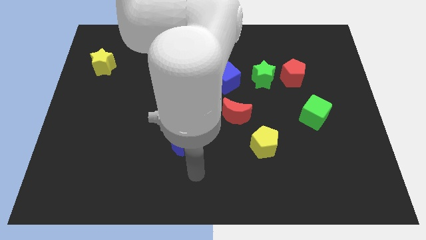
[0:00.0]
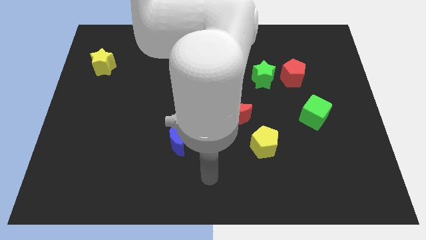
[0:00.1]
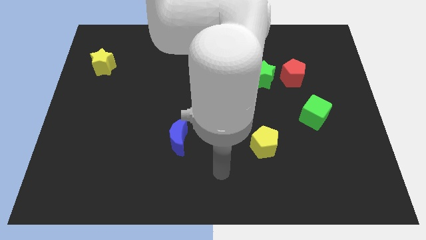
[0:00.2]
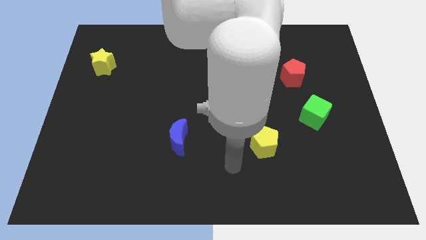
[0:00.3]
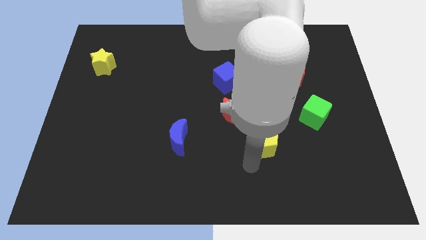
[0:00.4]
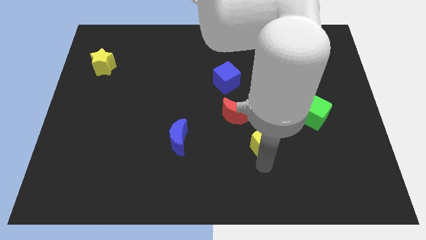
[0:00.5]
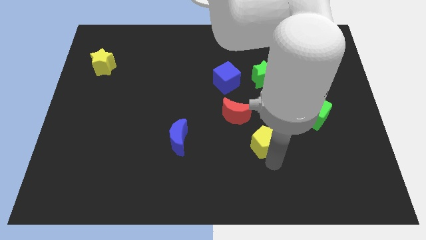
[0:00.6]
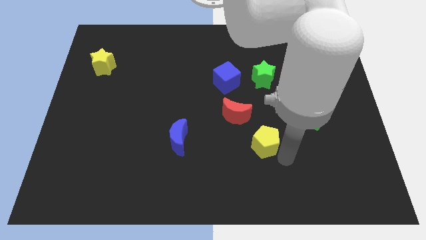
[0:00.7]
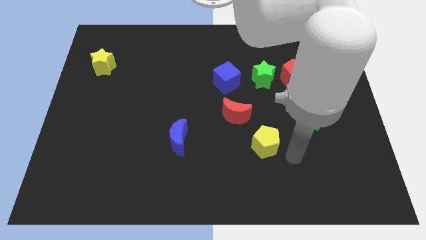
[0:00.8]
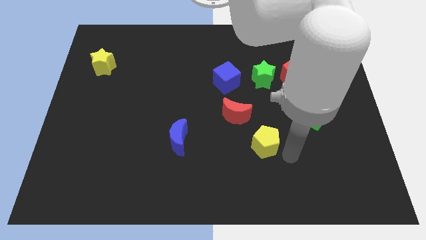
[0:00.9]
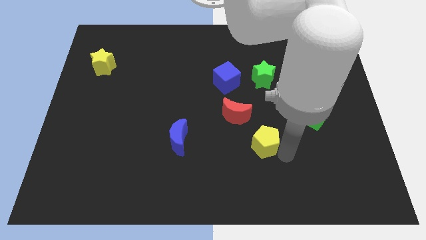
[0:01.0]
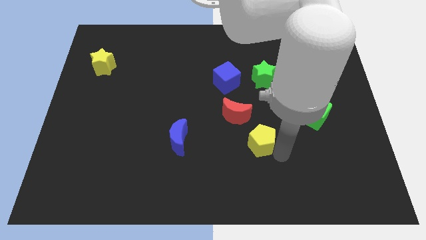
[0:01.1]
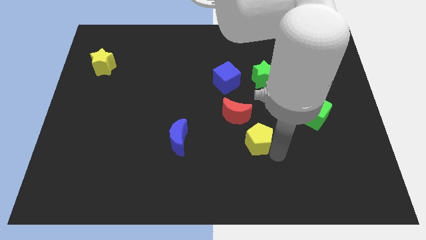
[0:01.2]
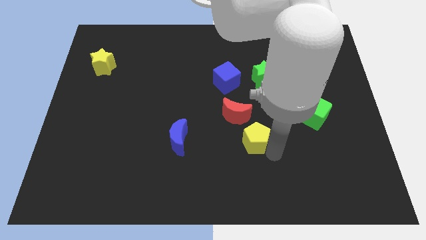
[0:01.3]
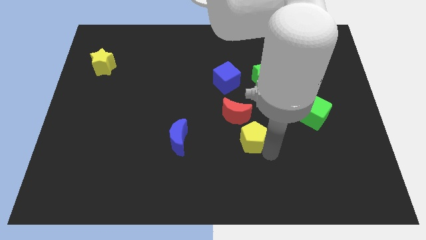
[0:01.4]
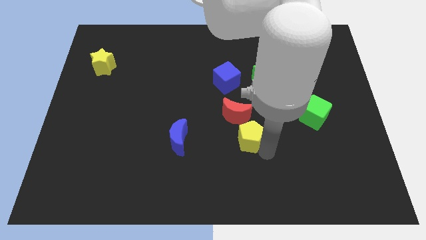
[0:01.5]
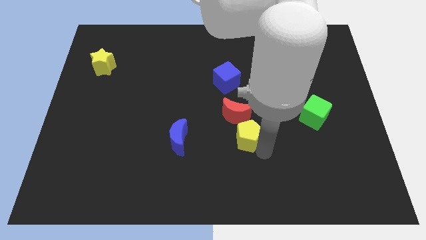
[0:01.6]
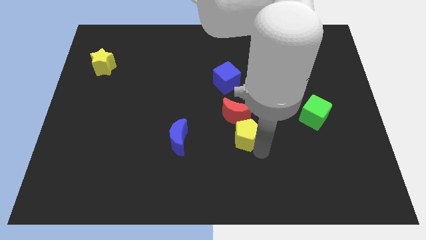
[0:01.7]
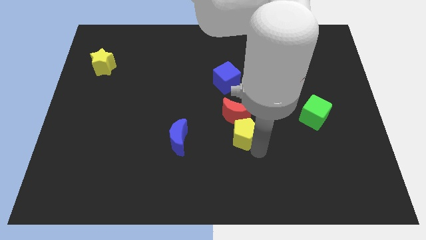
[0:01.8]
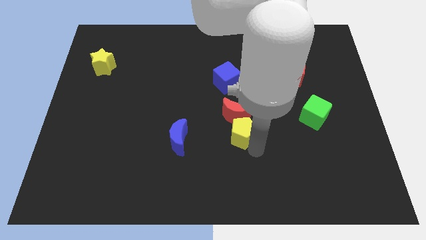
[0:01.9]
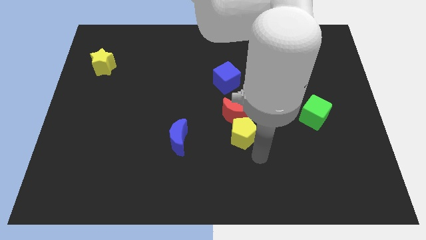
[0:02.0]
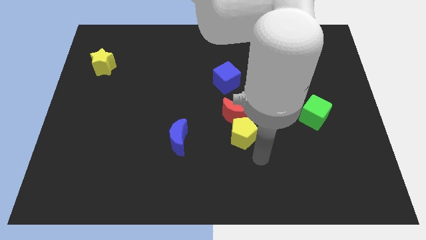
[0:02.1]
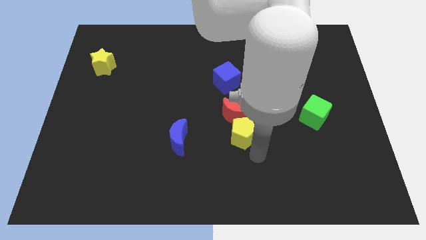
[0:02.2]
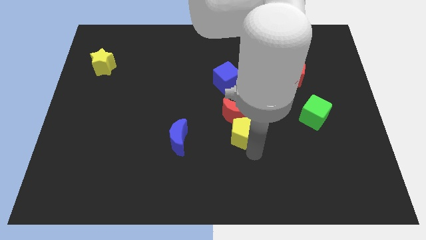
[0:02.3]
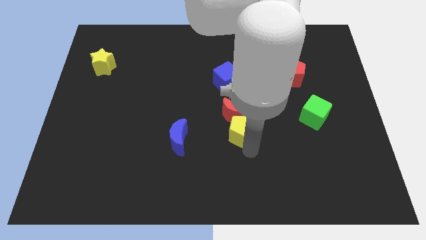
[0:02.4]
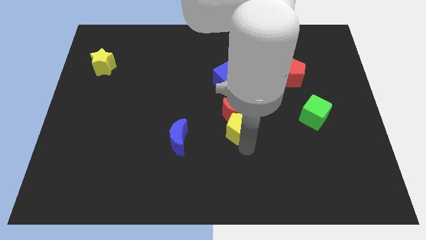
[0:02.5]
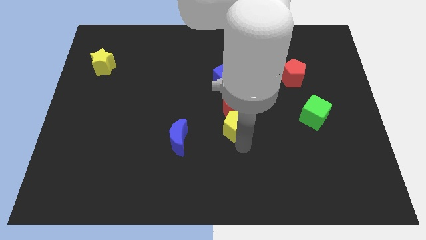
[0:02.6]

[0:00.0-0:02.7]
push the yellow pentagon up and to the left a little bit

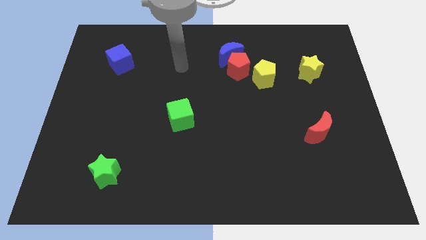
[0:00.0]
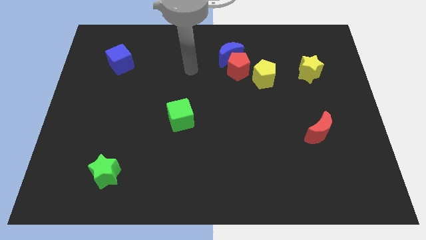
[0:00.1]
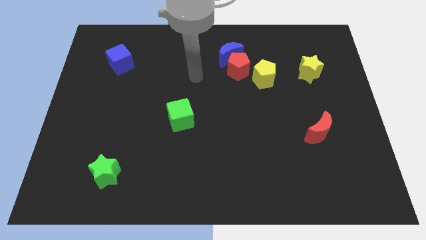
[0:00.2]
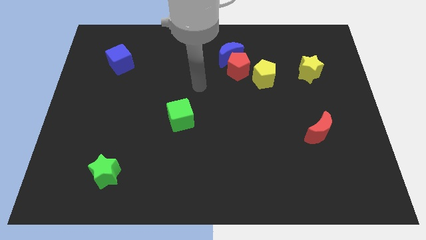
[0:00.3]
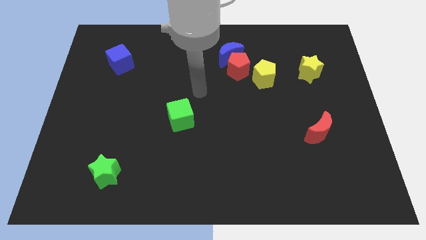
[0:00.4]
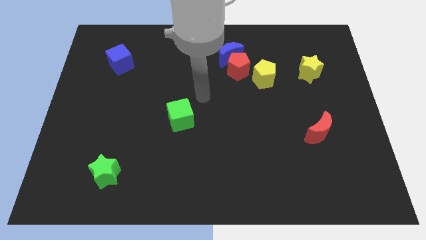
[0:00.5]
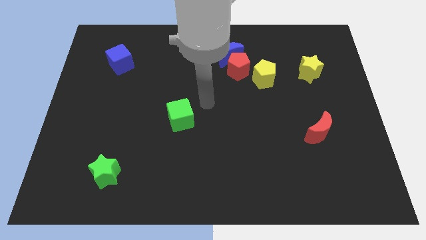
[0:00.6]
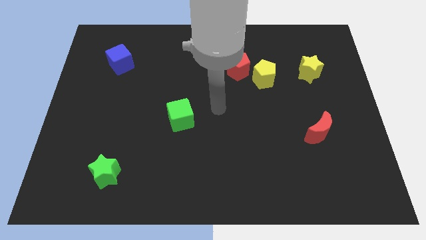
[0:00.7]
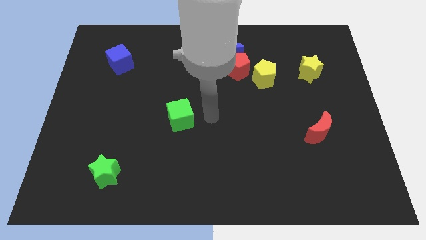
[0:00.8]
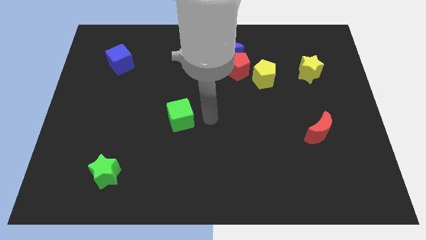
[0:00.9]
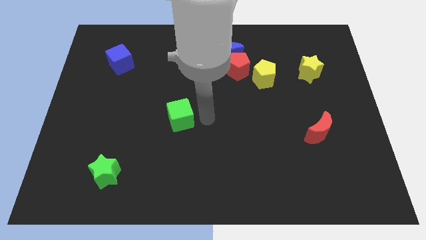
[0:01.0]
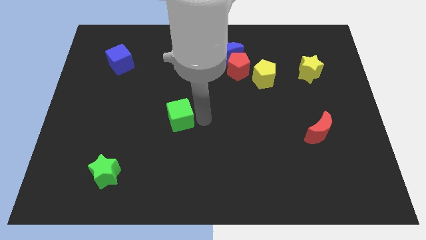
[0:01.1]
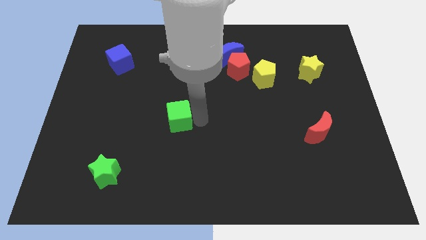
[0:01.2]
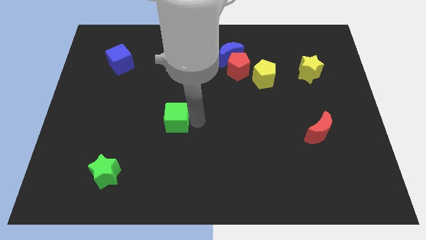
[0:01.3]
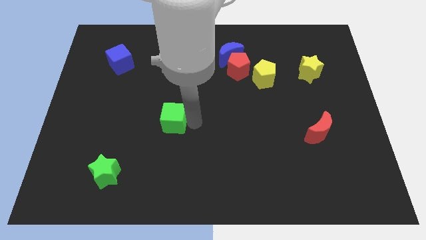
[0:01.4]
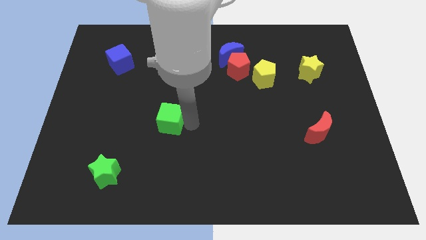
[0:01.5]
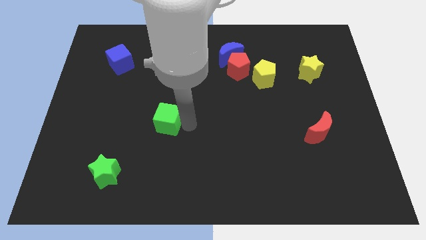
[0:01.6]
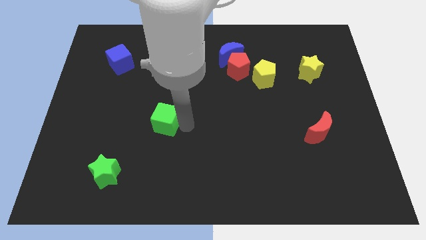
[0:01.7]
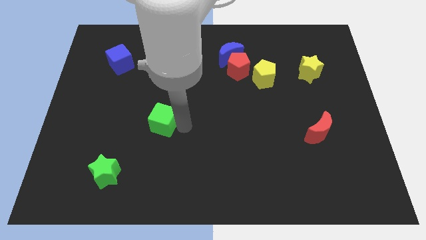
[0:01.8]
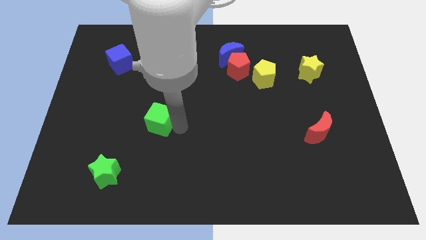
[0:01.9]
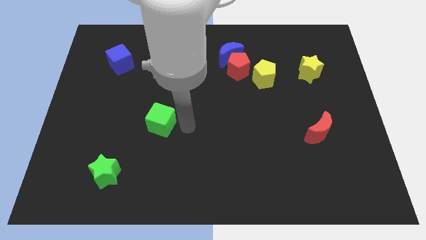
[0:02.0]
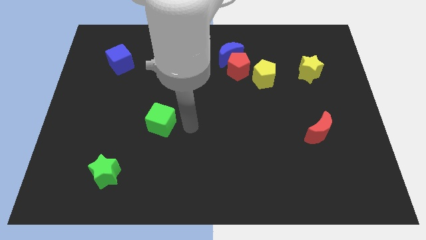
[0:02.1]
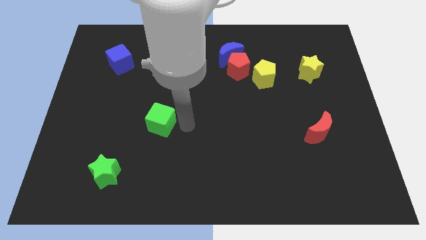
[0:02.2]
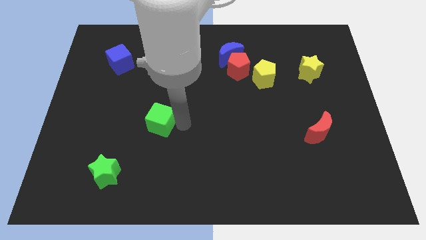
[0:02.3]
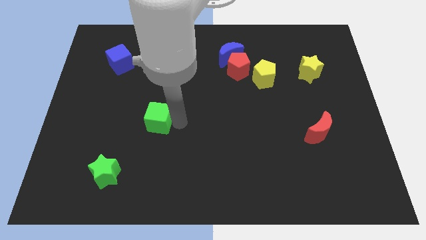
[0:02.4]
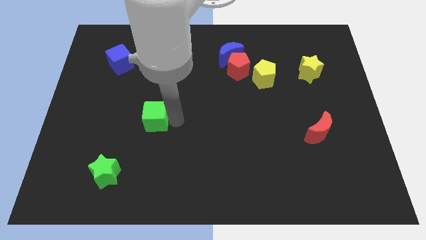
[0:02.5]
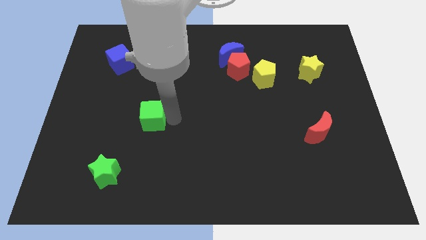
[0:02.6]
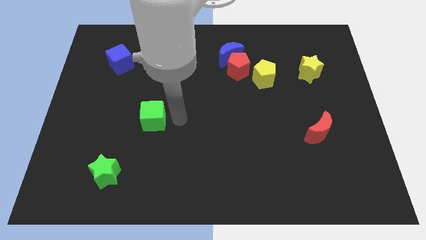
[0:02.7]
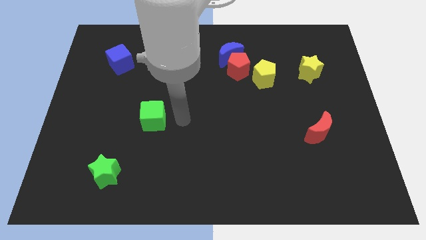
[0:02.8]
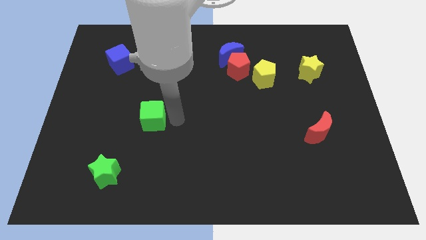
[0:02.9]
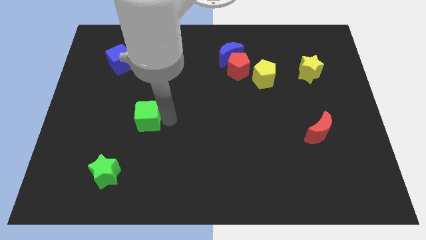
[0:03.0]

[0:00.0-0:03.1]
slightly move the green cube to the left

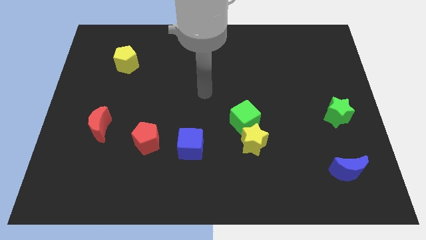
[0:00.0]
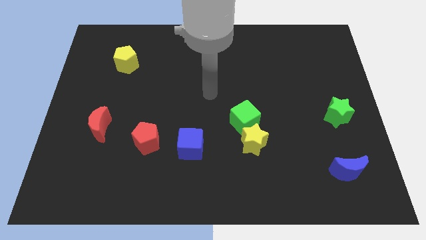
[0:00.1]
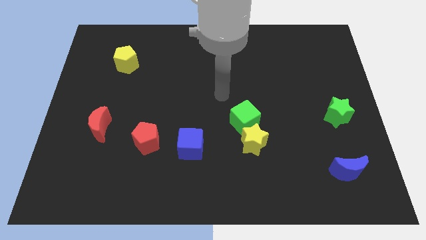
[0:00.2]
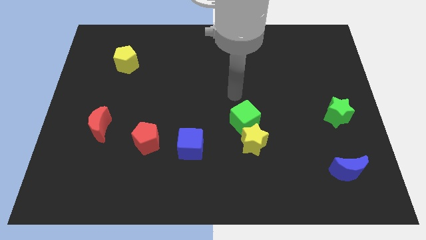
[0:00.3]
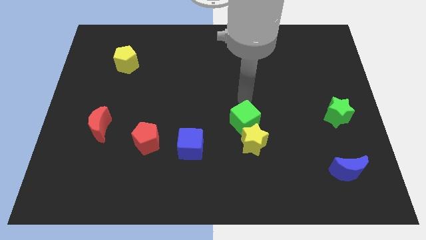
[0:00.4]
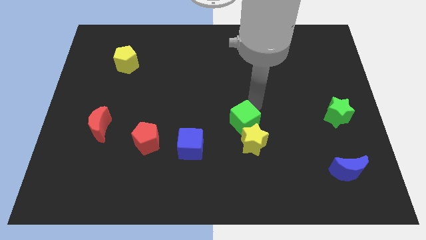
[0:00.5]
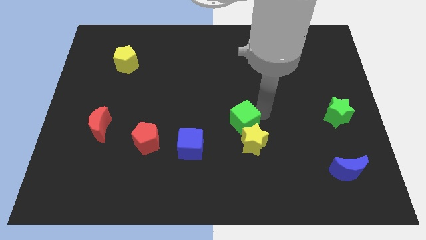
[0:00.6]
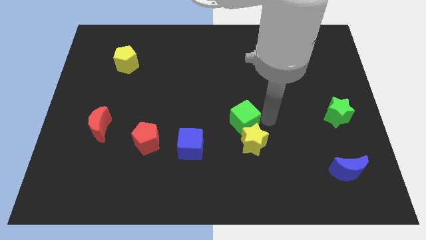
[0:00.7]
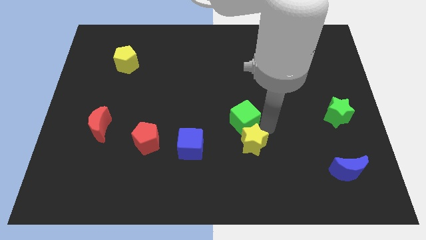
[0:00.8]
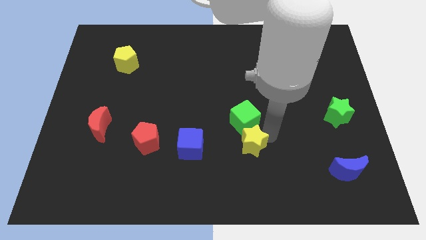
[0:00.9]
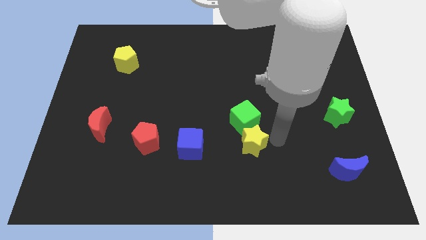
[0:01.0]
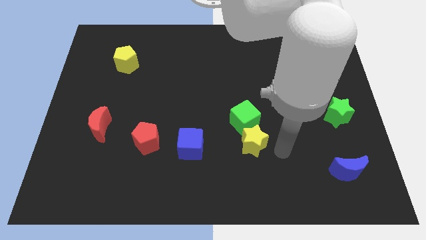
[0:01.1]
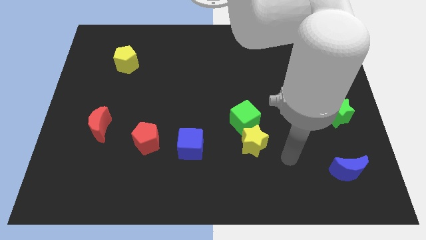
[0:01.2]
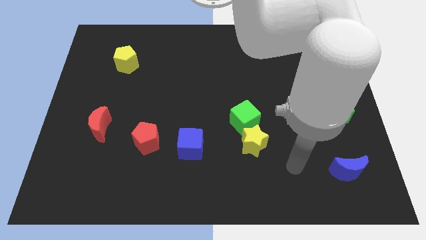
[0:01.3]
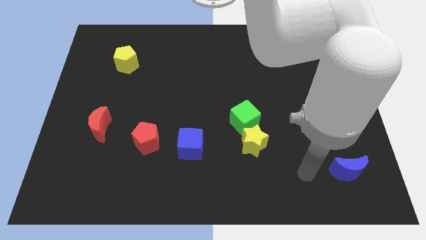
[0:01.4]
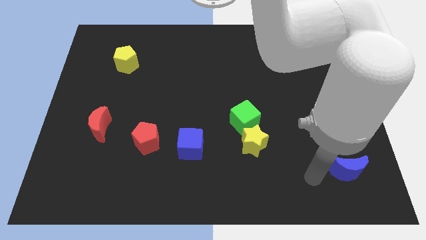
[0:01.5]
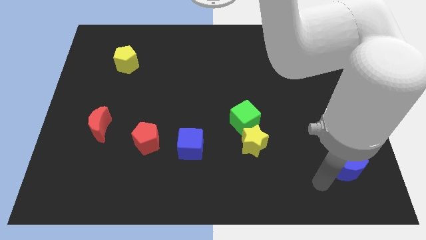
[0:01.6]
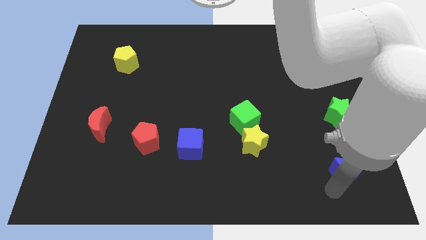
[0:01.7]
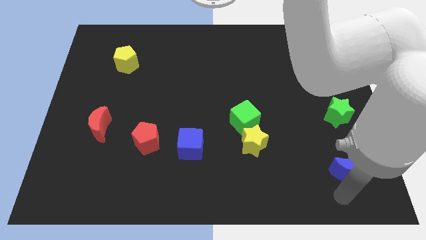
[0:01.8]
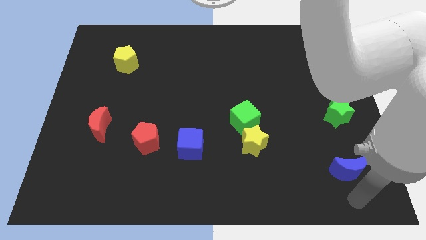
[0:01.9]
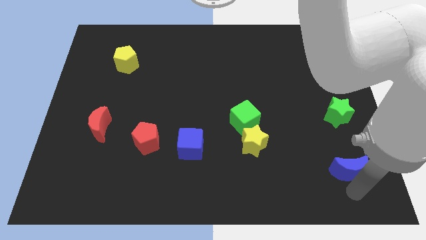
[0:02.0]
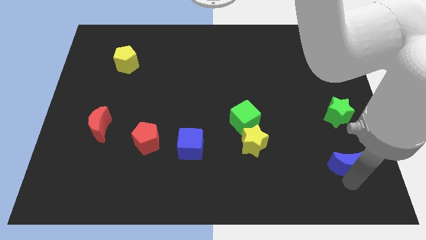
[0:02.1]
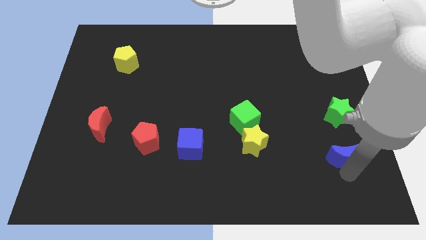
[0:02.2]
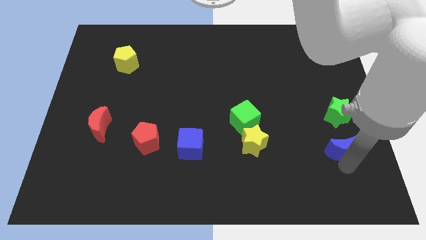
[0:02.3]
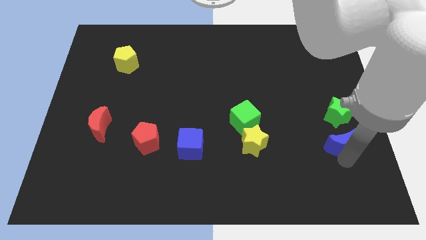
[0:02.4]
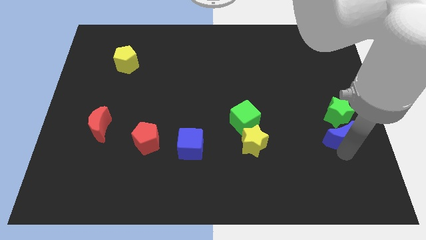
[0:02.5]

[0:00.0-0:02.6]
move the blue moon upwards a little
